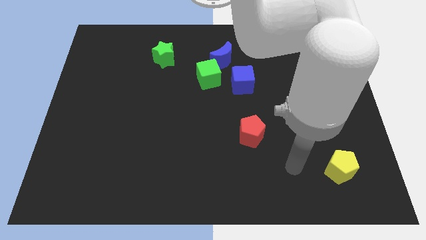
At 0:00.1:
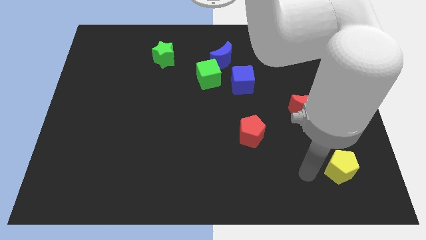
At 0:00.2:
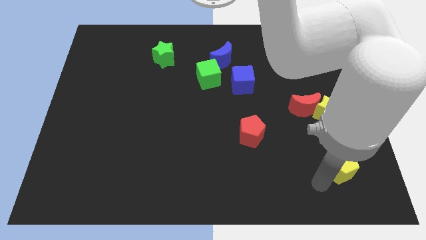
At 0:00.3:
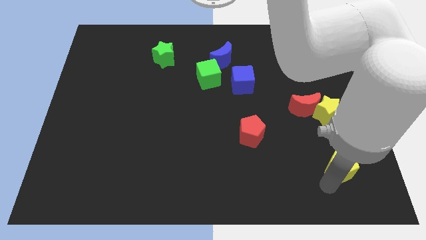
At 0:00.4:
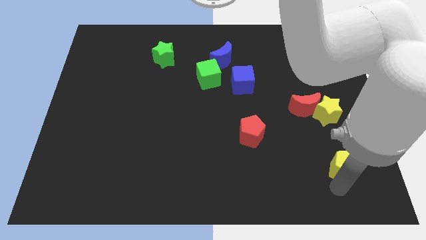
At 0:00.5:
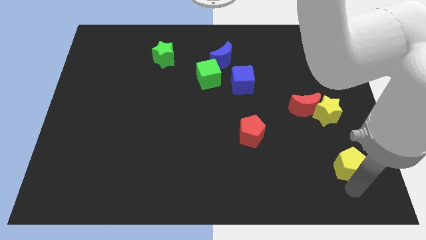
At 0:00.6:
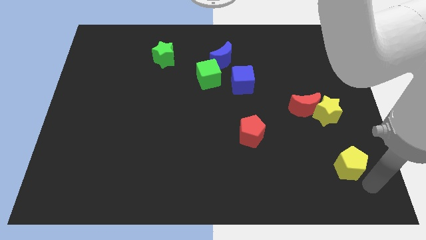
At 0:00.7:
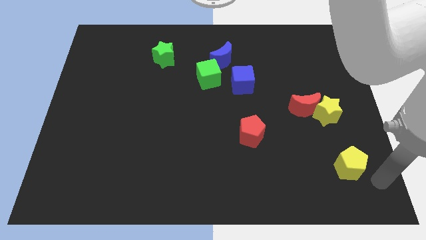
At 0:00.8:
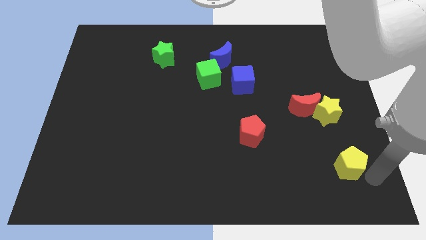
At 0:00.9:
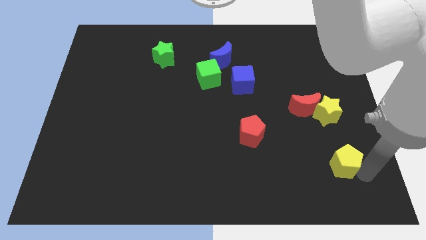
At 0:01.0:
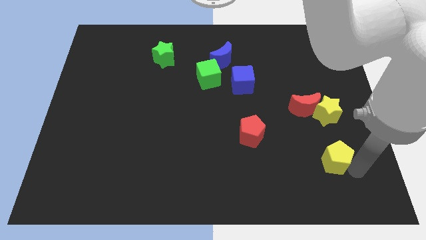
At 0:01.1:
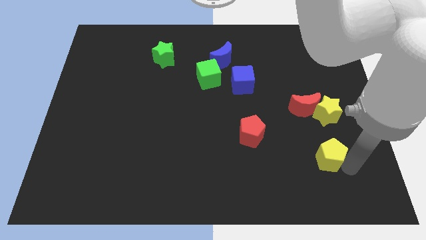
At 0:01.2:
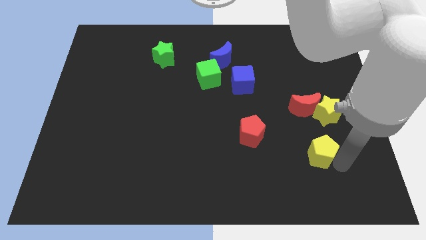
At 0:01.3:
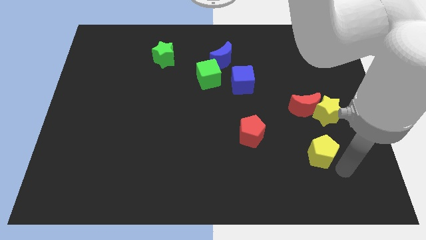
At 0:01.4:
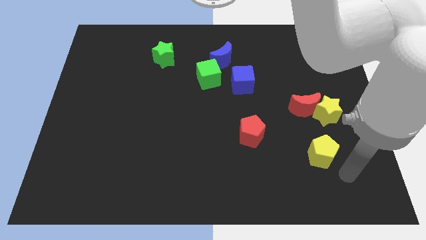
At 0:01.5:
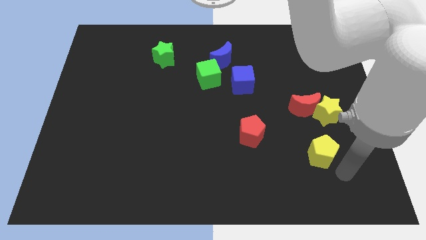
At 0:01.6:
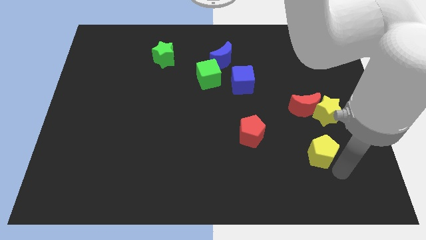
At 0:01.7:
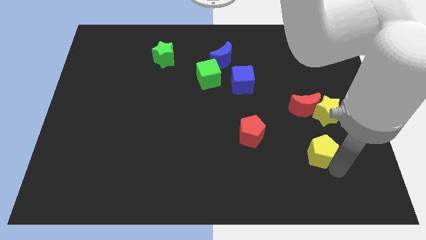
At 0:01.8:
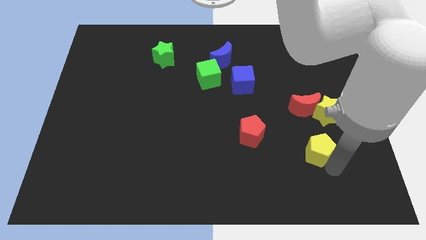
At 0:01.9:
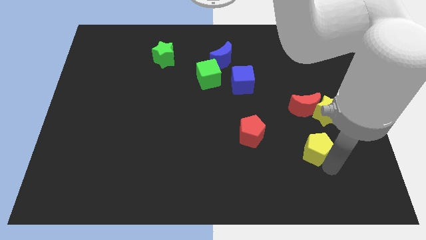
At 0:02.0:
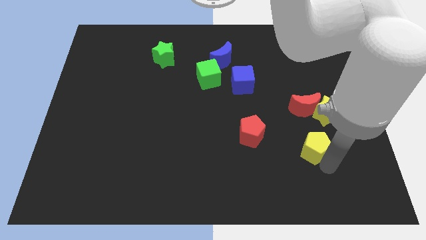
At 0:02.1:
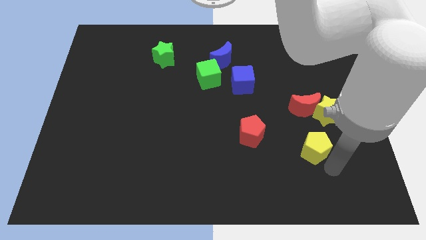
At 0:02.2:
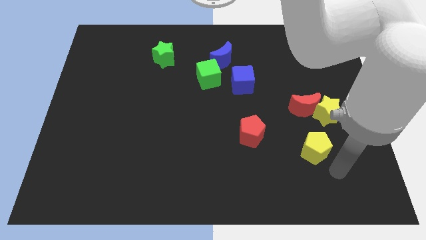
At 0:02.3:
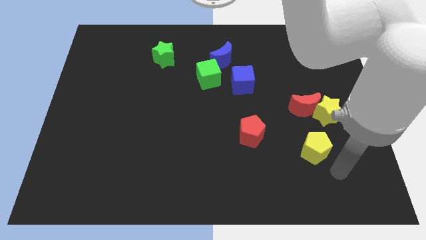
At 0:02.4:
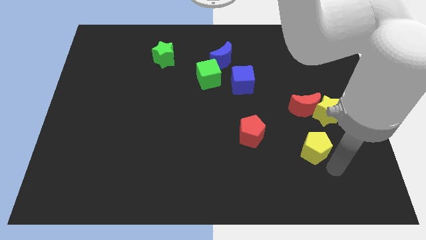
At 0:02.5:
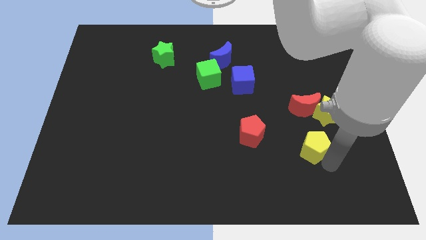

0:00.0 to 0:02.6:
move the yellow pentagon diagonally up and to the left a little

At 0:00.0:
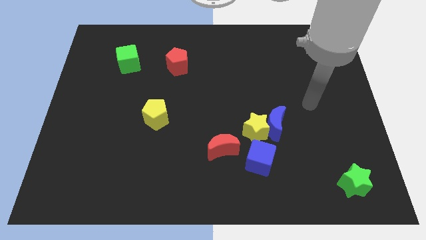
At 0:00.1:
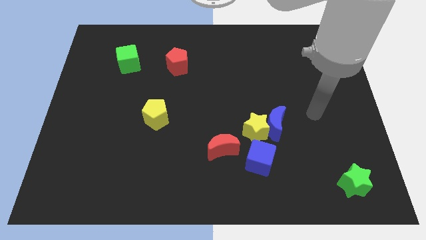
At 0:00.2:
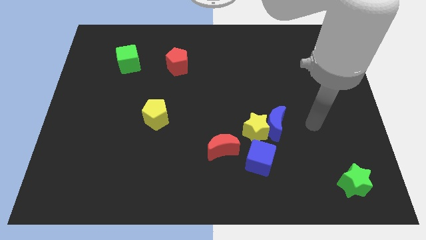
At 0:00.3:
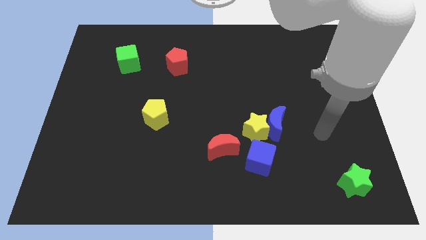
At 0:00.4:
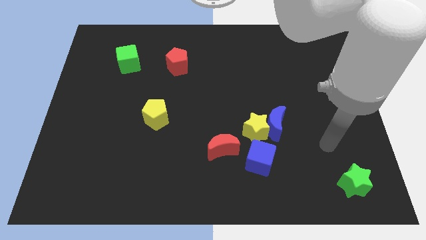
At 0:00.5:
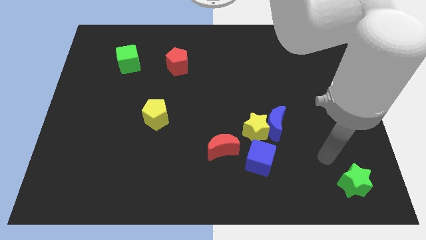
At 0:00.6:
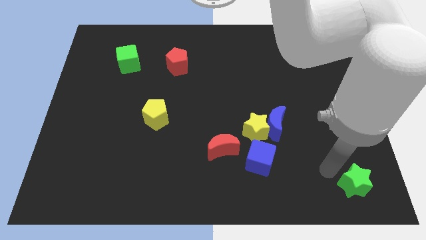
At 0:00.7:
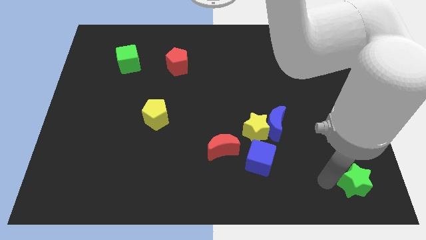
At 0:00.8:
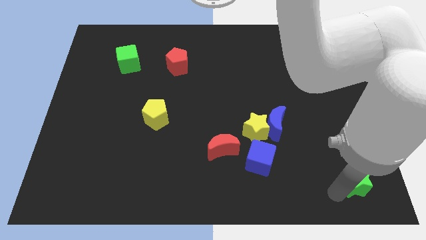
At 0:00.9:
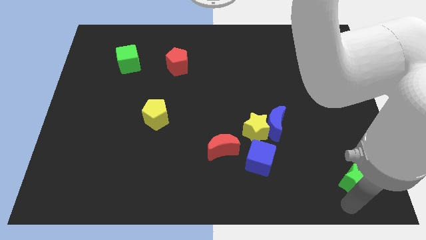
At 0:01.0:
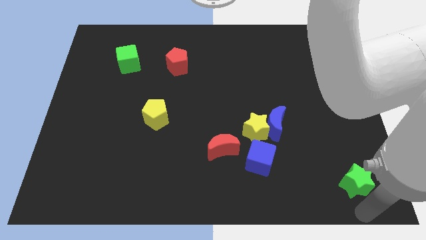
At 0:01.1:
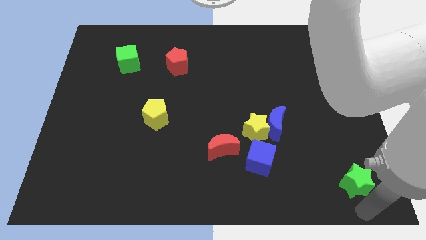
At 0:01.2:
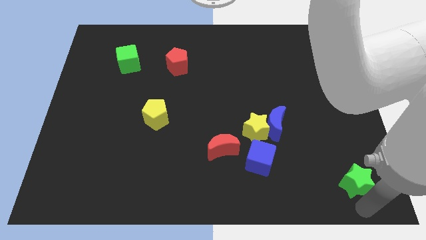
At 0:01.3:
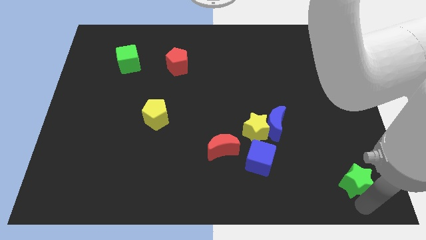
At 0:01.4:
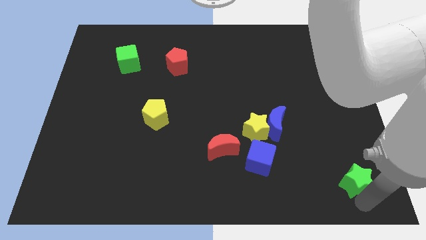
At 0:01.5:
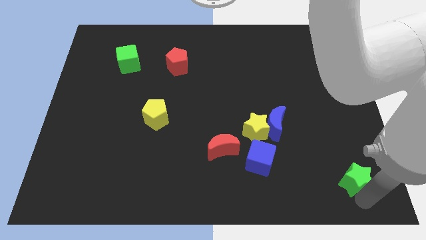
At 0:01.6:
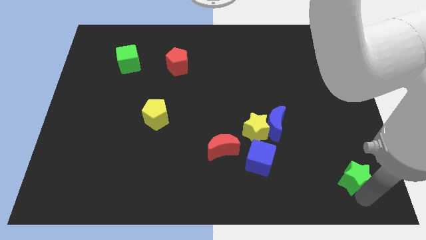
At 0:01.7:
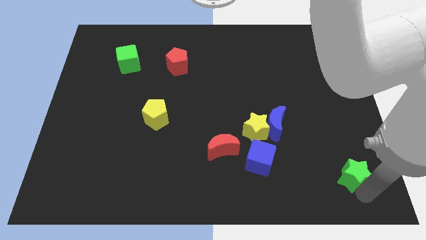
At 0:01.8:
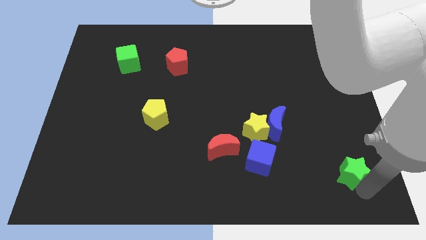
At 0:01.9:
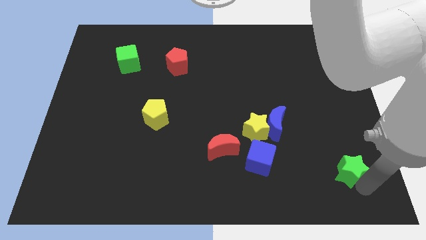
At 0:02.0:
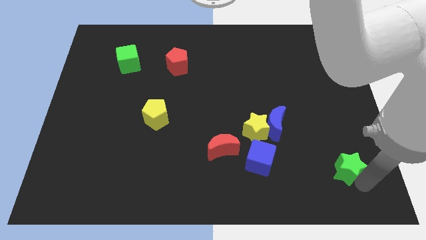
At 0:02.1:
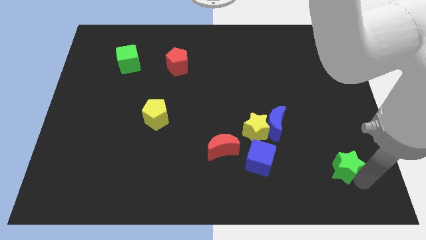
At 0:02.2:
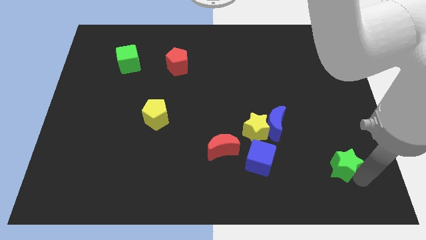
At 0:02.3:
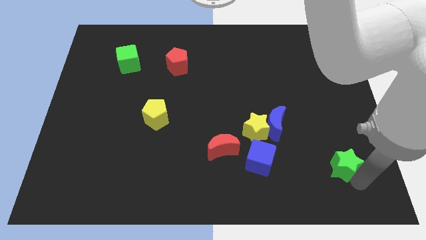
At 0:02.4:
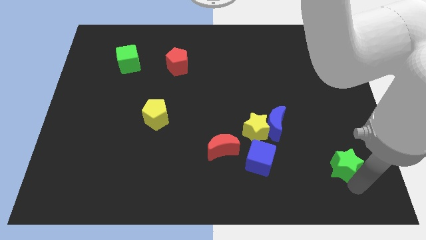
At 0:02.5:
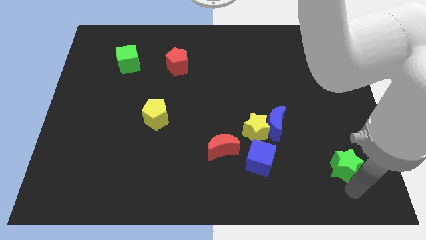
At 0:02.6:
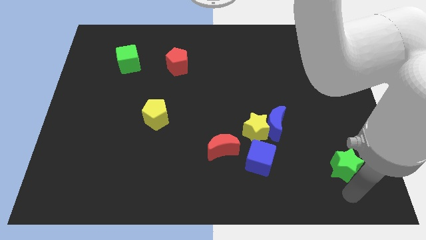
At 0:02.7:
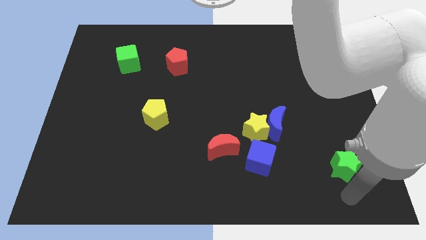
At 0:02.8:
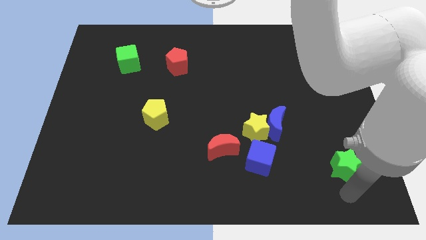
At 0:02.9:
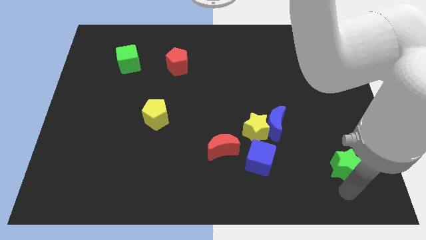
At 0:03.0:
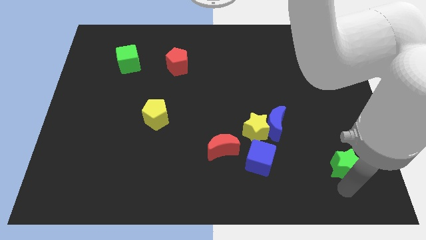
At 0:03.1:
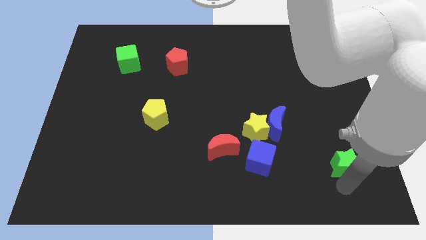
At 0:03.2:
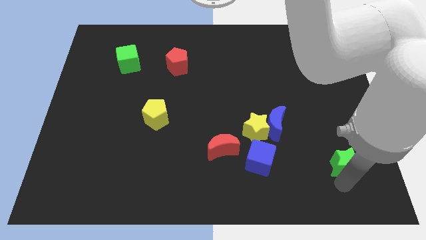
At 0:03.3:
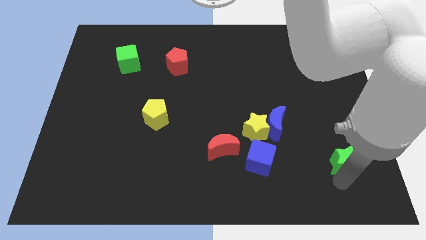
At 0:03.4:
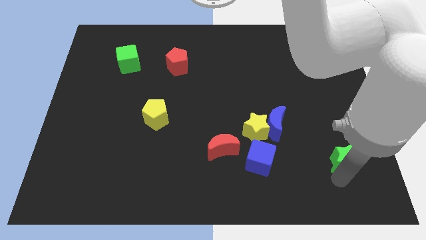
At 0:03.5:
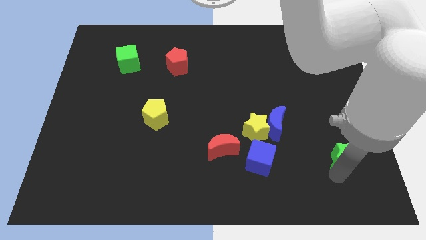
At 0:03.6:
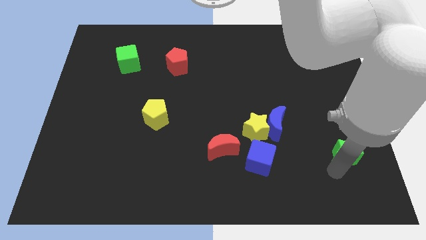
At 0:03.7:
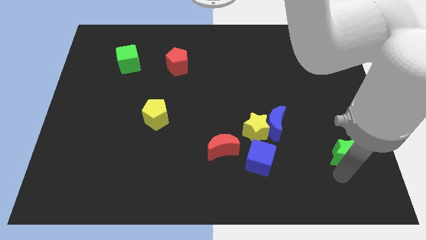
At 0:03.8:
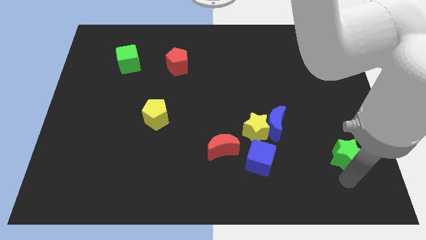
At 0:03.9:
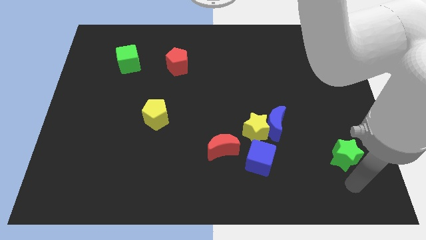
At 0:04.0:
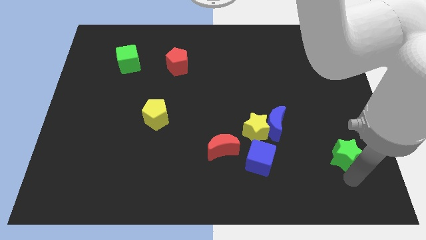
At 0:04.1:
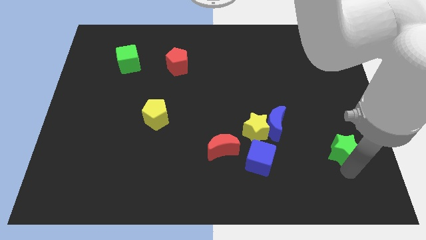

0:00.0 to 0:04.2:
move the green star slightly up

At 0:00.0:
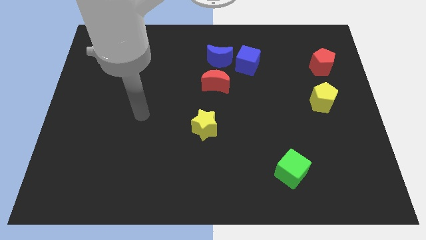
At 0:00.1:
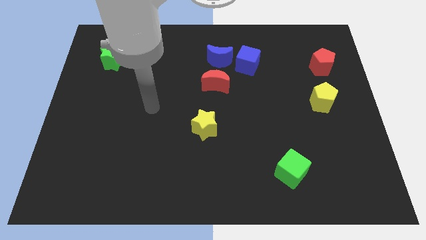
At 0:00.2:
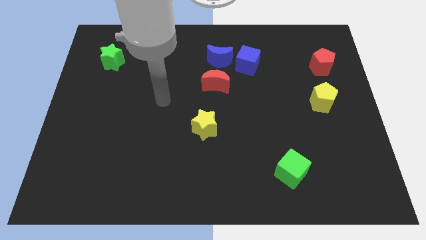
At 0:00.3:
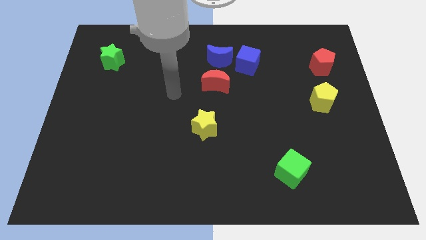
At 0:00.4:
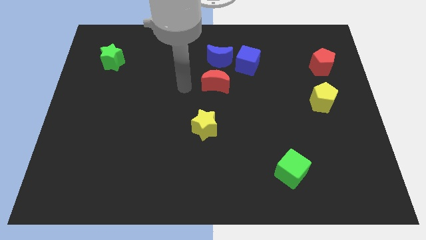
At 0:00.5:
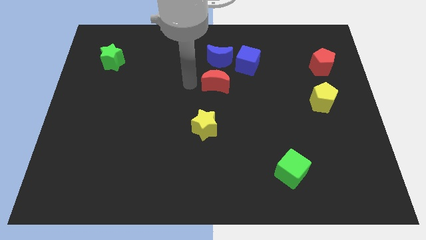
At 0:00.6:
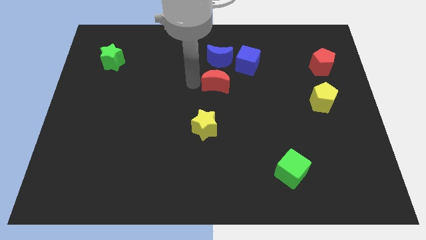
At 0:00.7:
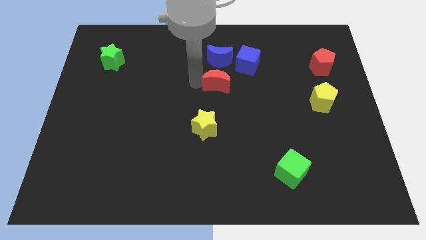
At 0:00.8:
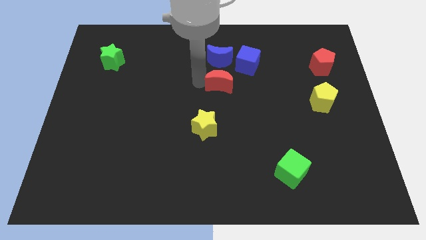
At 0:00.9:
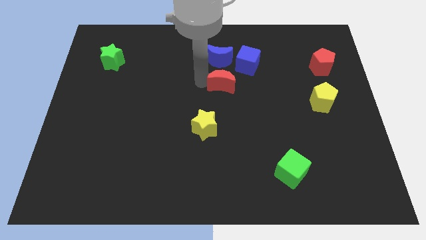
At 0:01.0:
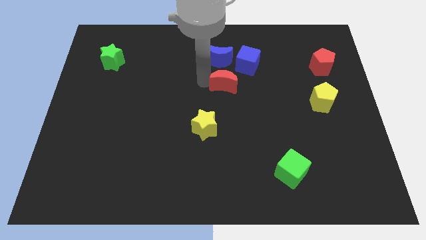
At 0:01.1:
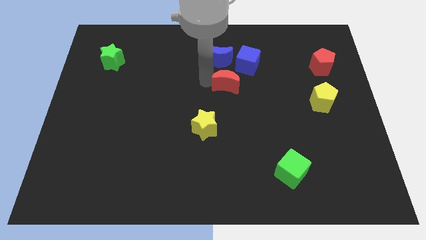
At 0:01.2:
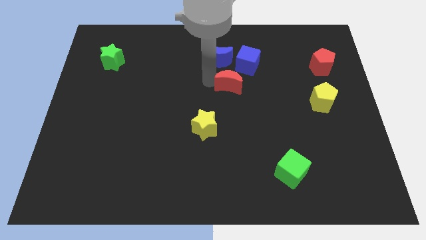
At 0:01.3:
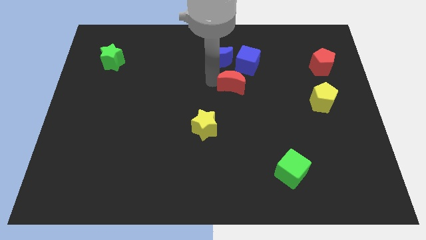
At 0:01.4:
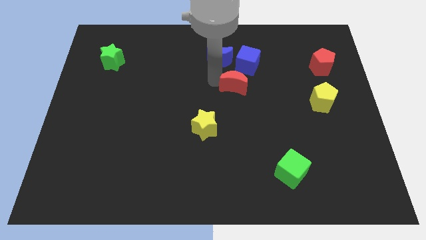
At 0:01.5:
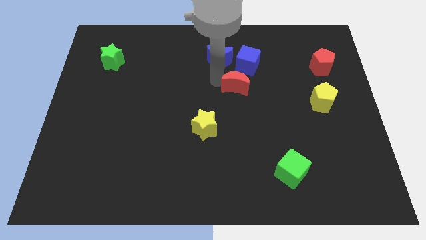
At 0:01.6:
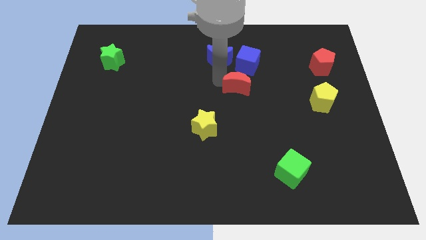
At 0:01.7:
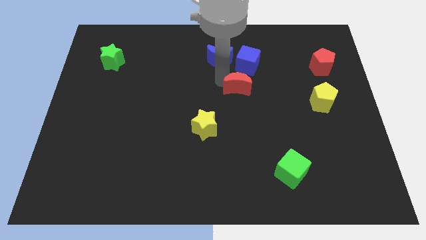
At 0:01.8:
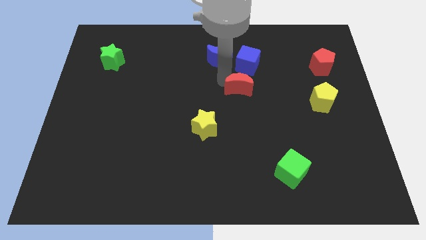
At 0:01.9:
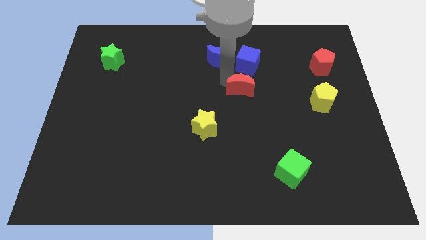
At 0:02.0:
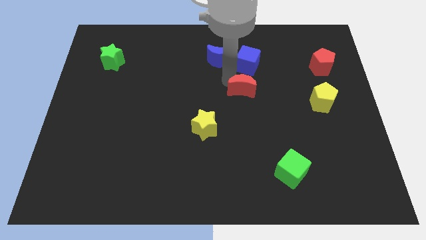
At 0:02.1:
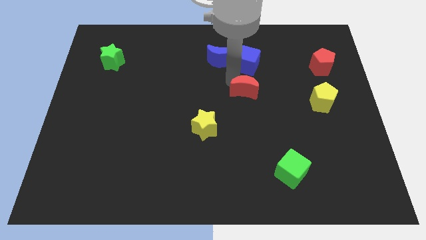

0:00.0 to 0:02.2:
slightly slide the red moon right
